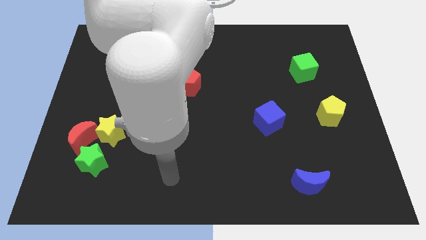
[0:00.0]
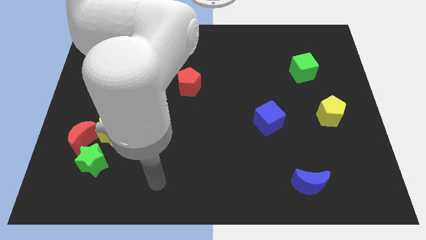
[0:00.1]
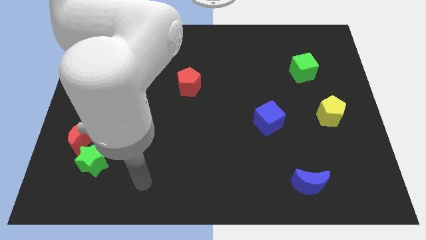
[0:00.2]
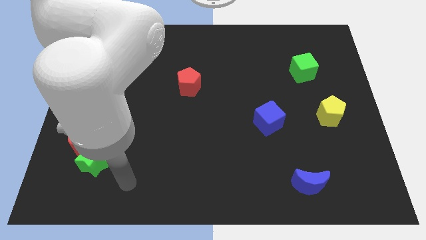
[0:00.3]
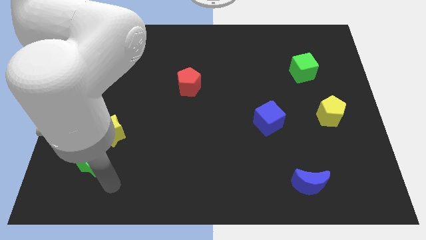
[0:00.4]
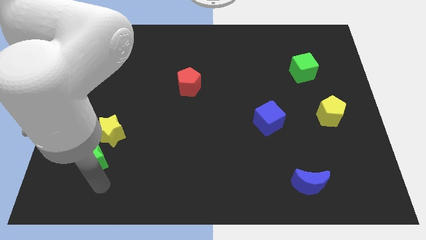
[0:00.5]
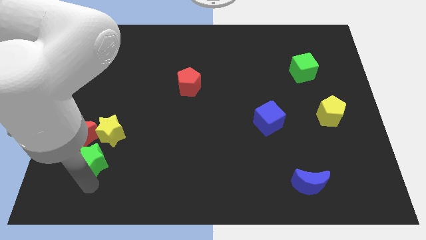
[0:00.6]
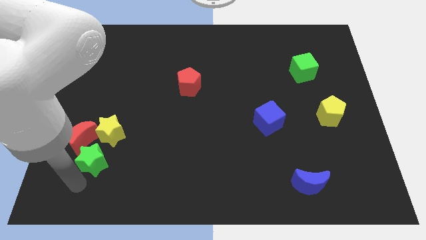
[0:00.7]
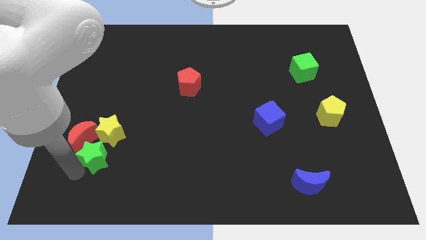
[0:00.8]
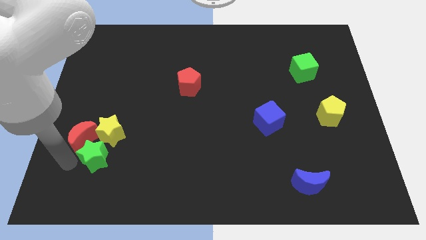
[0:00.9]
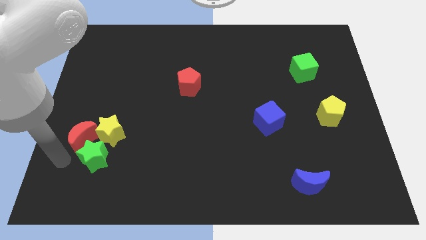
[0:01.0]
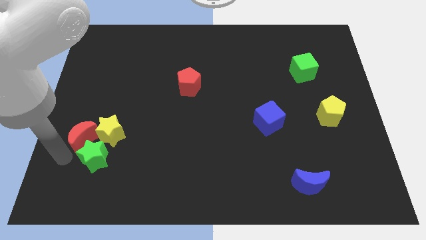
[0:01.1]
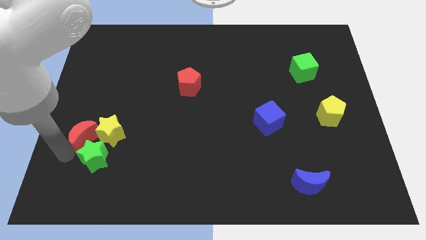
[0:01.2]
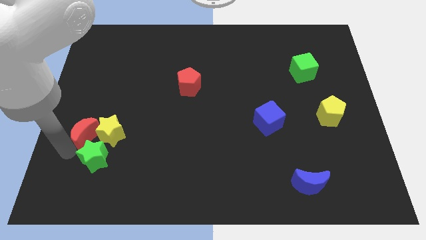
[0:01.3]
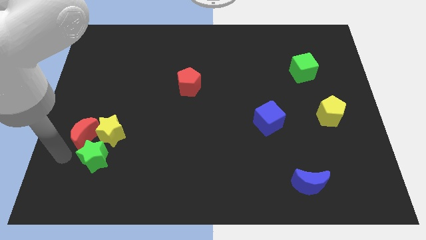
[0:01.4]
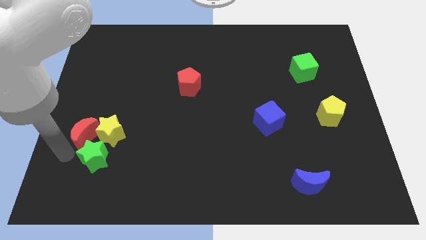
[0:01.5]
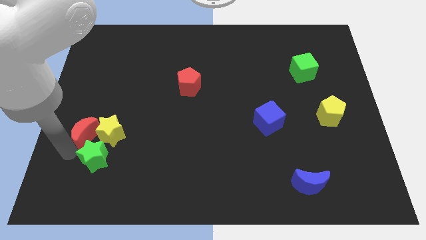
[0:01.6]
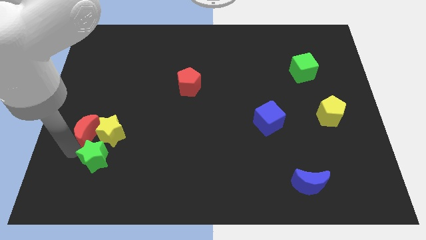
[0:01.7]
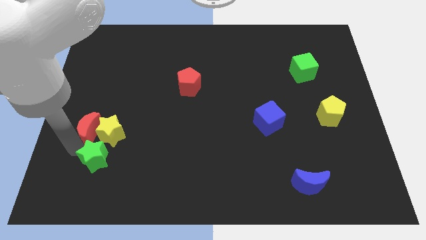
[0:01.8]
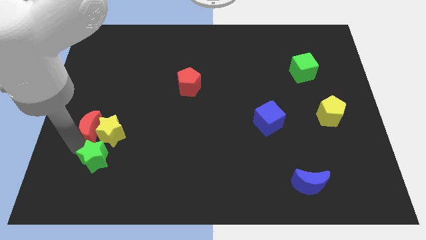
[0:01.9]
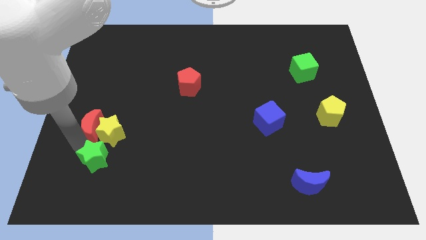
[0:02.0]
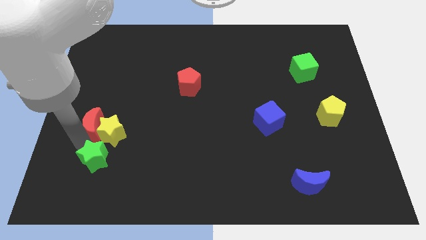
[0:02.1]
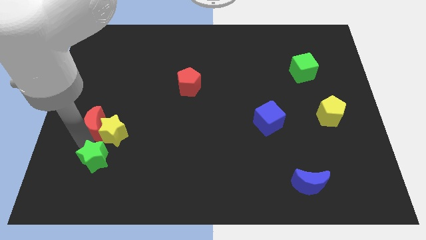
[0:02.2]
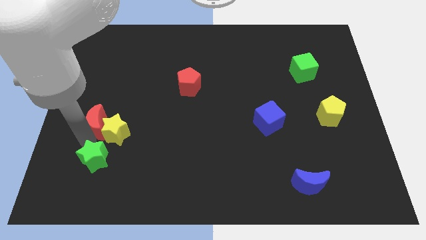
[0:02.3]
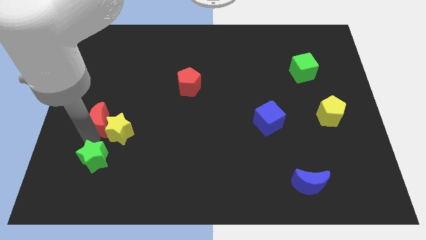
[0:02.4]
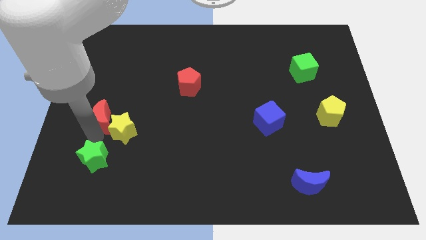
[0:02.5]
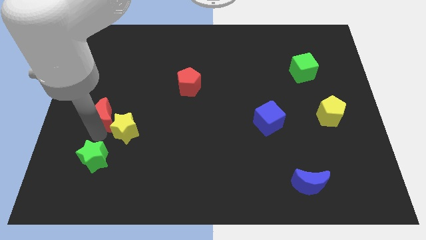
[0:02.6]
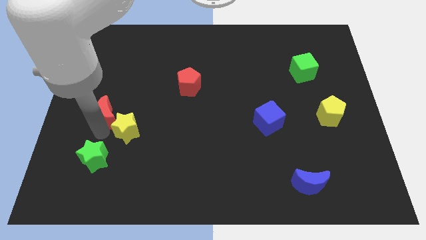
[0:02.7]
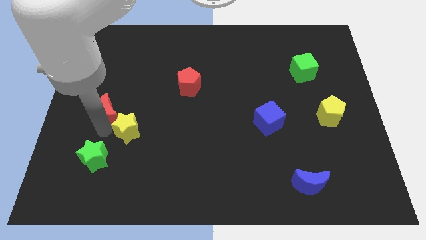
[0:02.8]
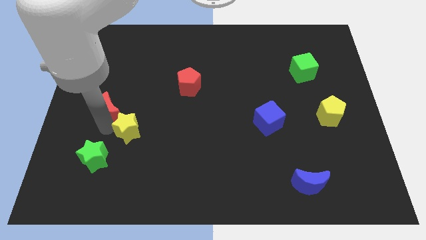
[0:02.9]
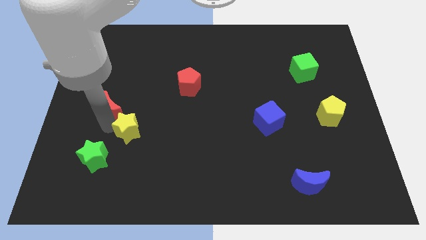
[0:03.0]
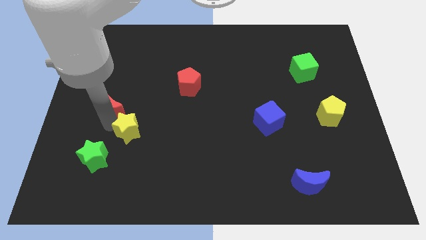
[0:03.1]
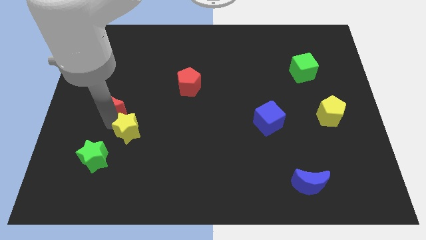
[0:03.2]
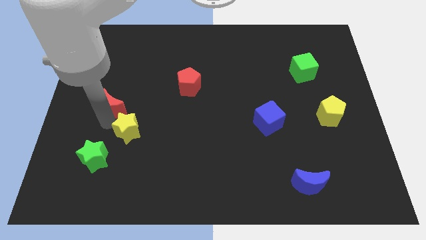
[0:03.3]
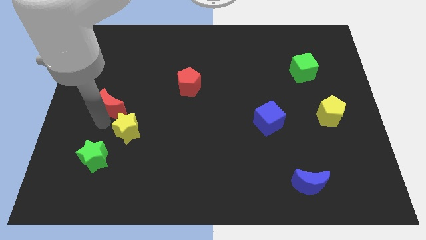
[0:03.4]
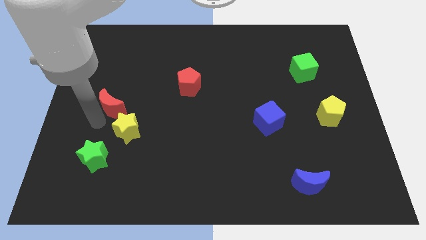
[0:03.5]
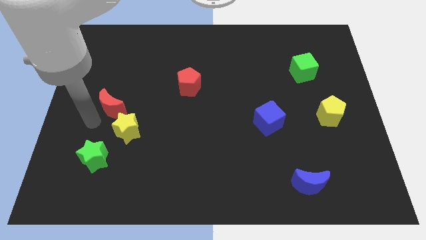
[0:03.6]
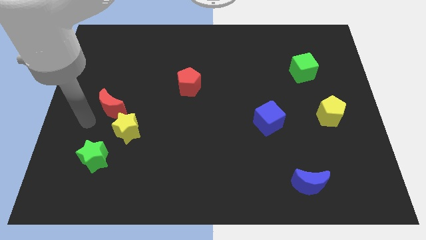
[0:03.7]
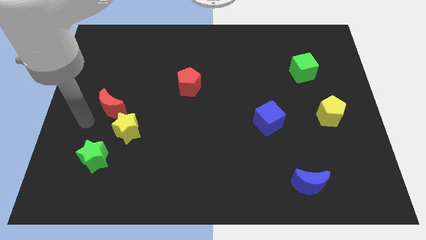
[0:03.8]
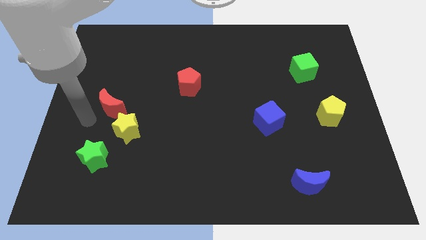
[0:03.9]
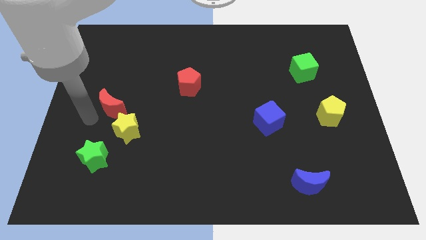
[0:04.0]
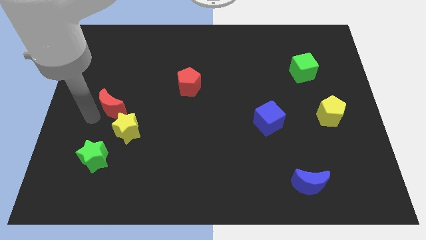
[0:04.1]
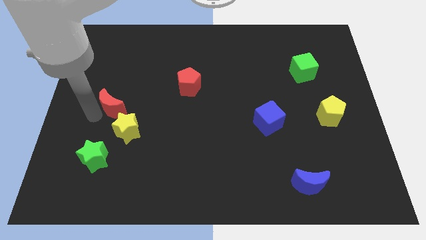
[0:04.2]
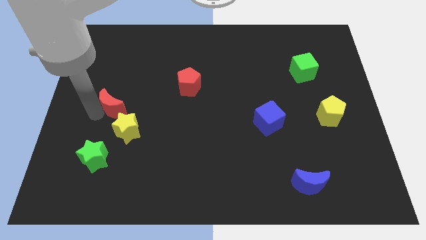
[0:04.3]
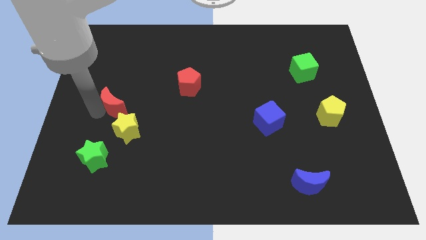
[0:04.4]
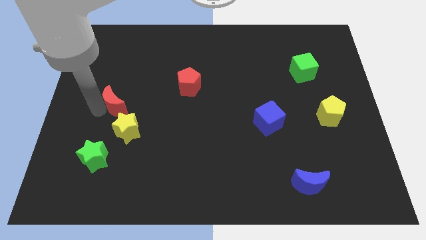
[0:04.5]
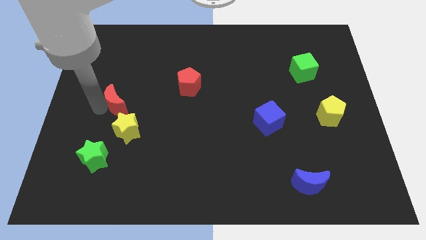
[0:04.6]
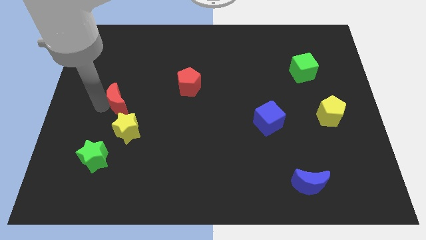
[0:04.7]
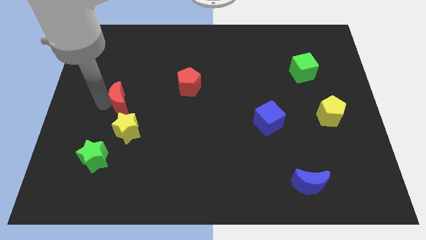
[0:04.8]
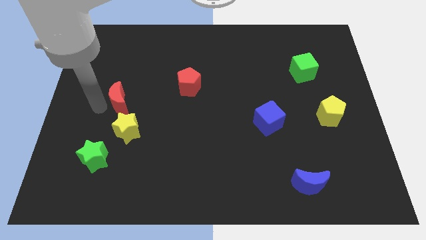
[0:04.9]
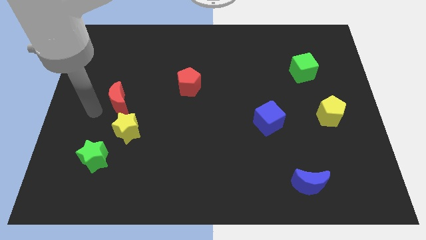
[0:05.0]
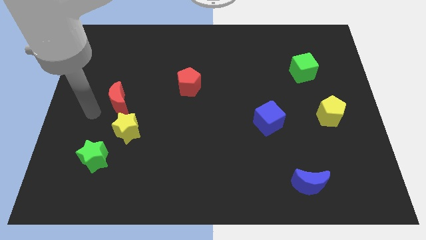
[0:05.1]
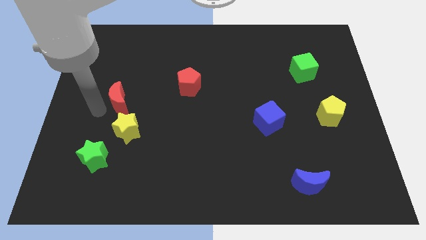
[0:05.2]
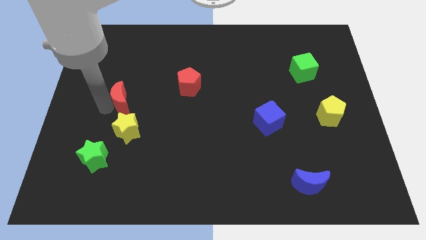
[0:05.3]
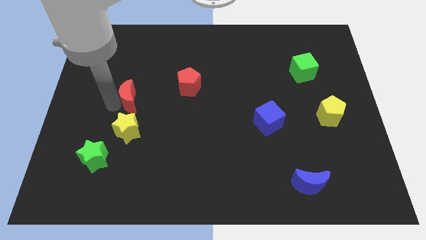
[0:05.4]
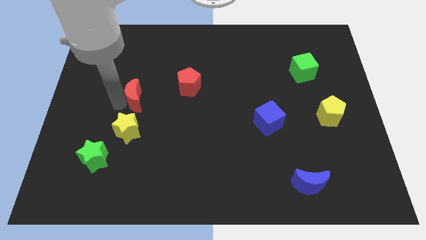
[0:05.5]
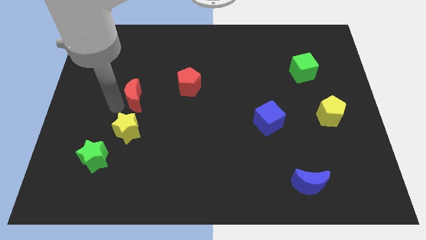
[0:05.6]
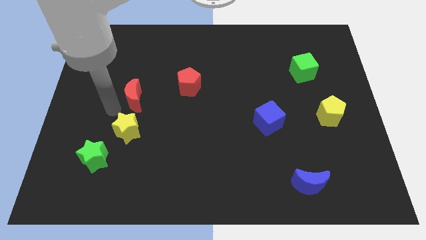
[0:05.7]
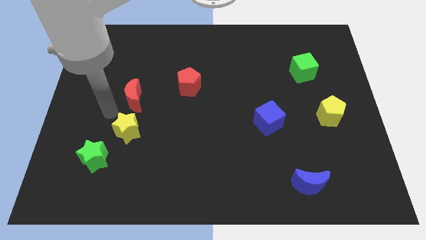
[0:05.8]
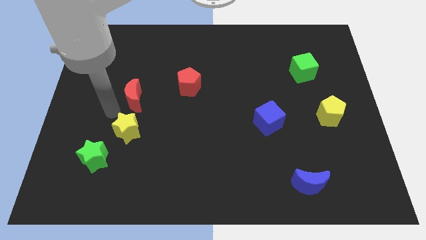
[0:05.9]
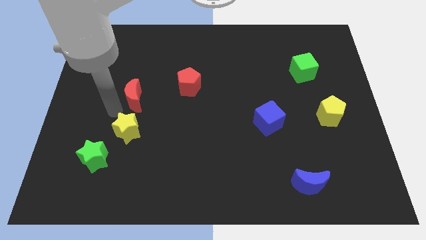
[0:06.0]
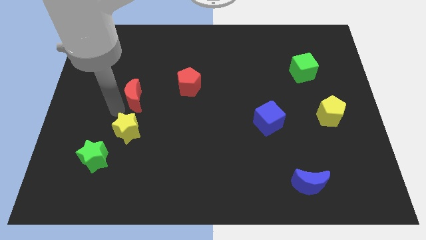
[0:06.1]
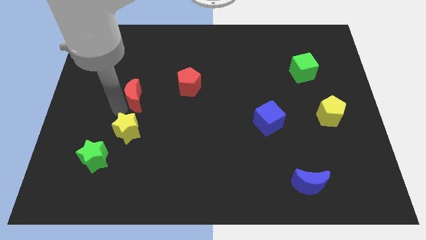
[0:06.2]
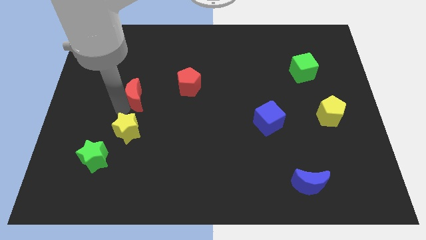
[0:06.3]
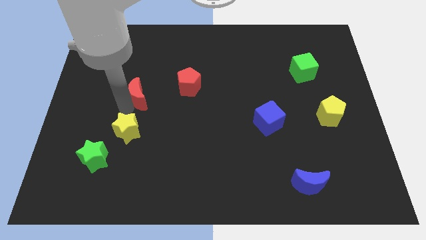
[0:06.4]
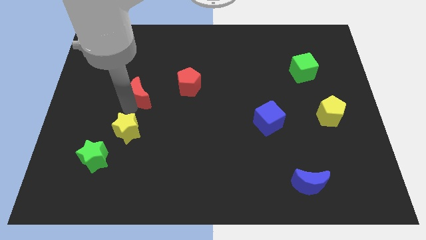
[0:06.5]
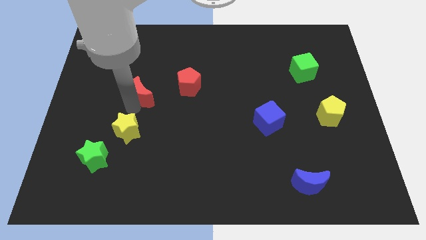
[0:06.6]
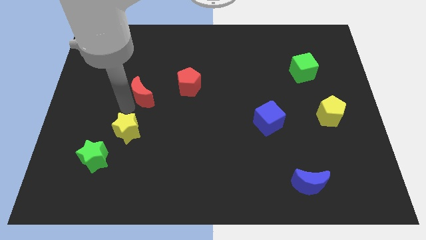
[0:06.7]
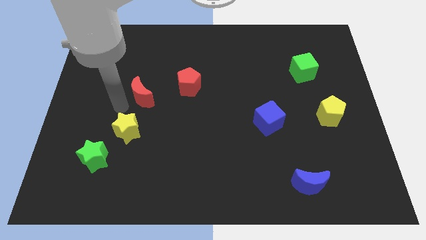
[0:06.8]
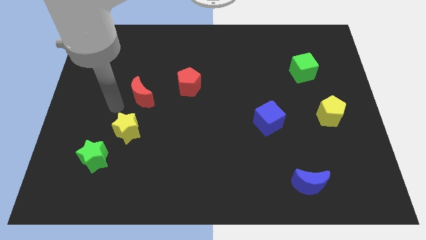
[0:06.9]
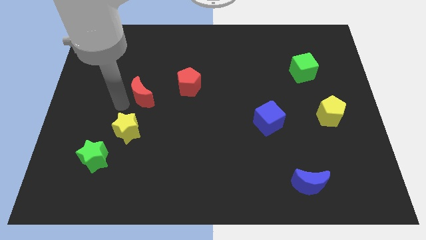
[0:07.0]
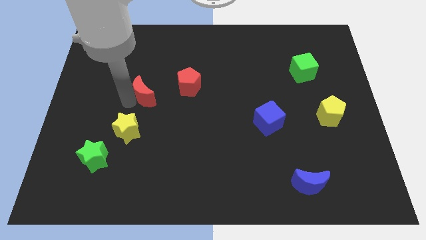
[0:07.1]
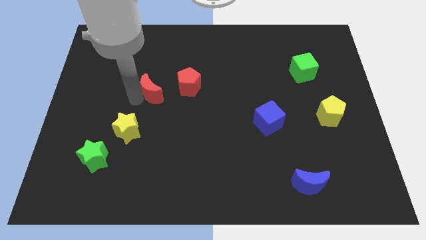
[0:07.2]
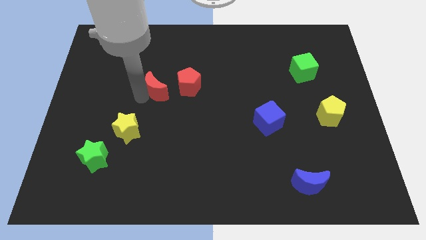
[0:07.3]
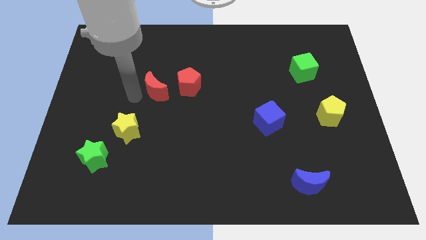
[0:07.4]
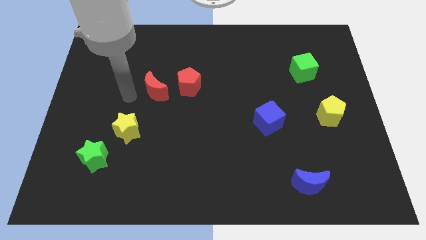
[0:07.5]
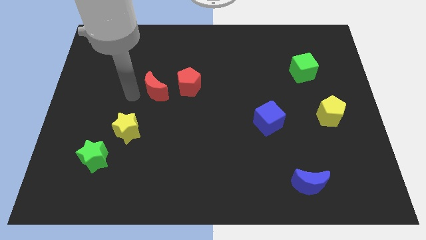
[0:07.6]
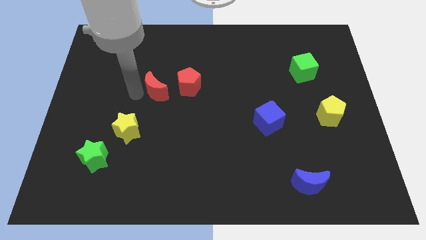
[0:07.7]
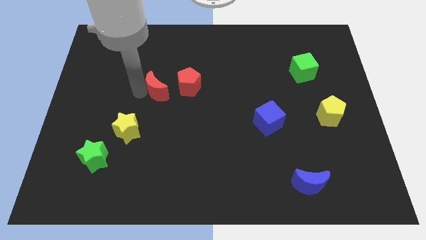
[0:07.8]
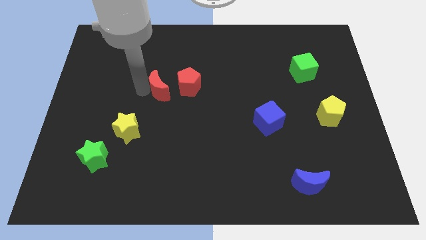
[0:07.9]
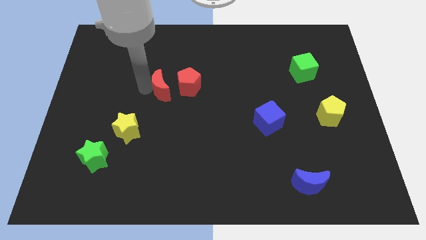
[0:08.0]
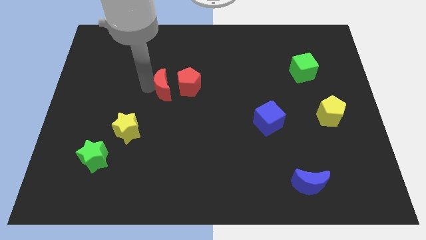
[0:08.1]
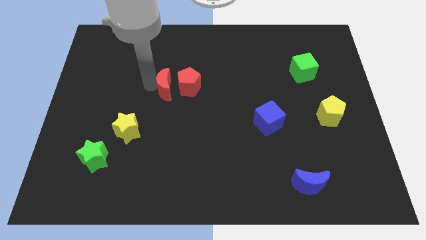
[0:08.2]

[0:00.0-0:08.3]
move the red moon close to the red pentagon
